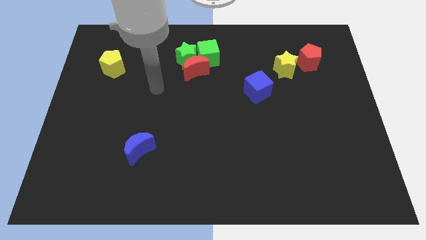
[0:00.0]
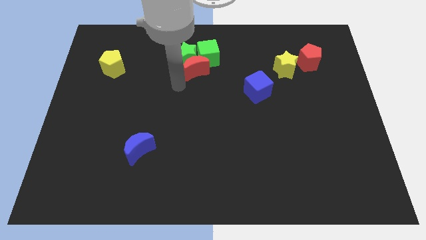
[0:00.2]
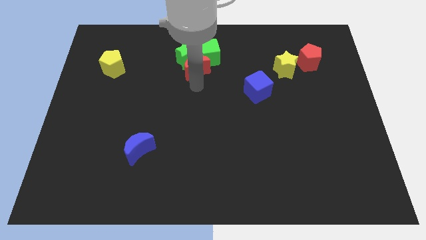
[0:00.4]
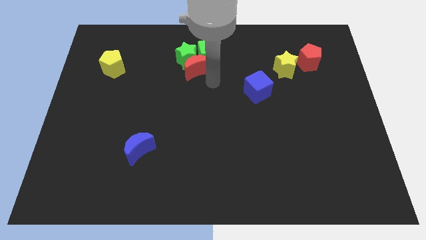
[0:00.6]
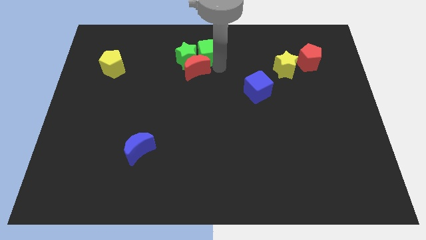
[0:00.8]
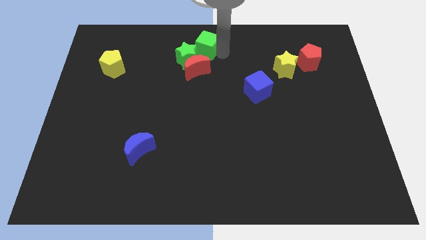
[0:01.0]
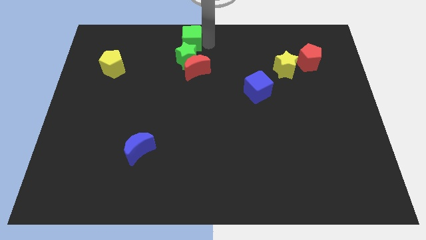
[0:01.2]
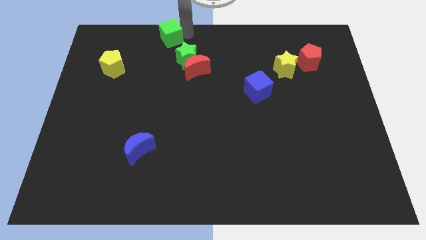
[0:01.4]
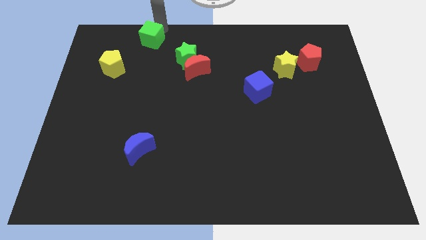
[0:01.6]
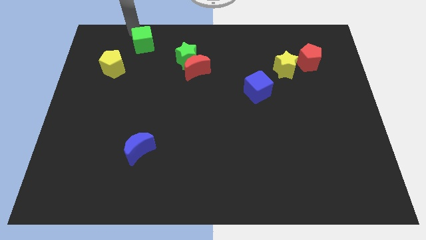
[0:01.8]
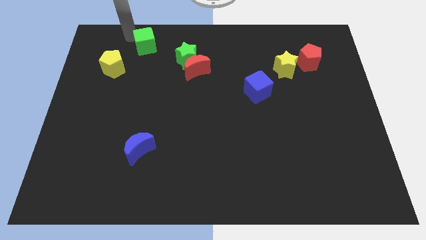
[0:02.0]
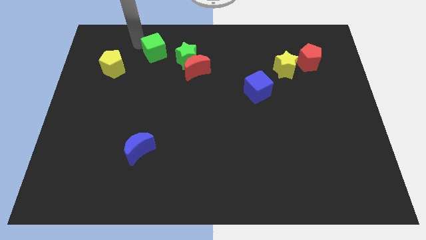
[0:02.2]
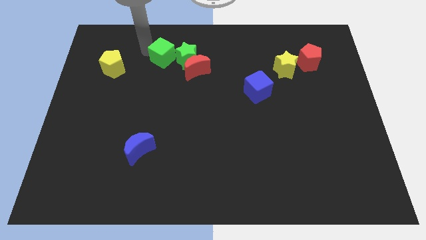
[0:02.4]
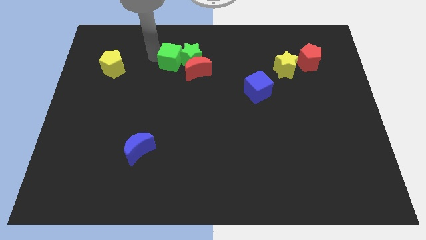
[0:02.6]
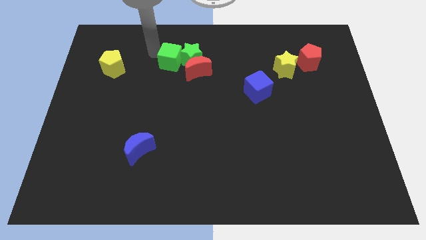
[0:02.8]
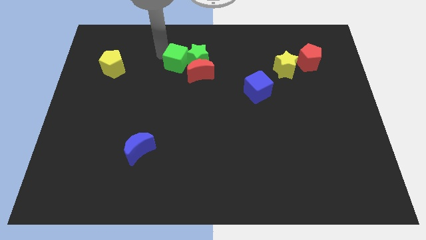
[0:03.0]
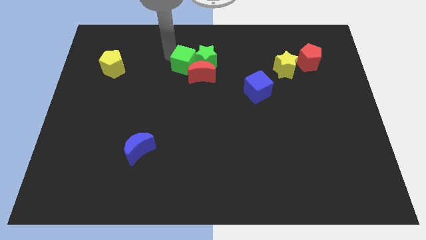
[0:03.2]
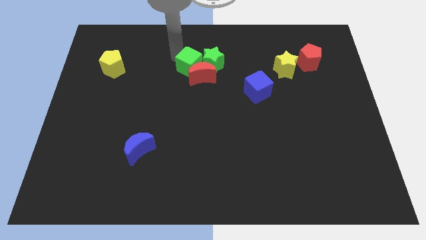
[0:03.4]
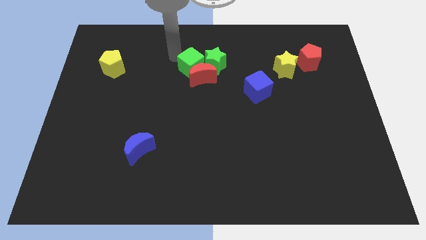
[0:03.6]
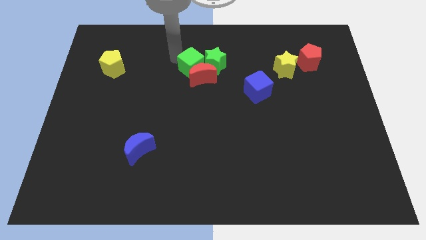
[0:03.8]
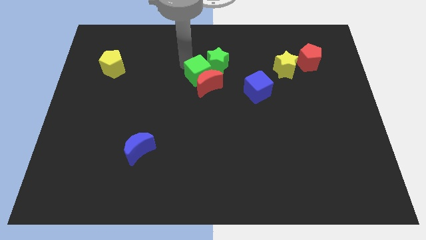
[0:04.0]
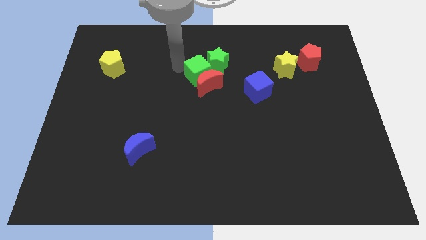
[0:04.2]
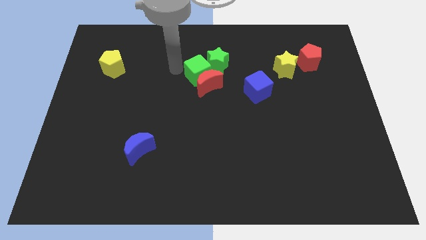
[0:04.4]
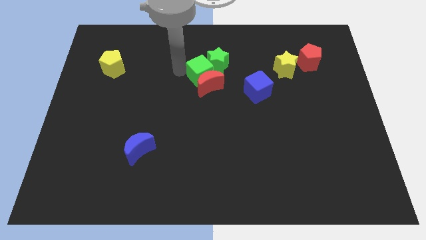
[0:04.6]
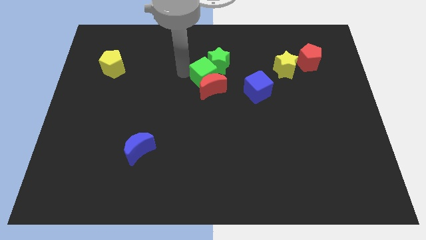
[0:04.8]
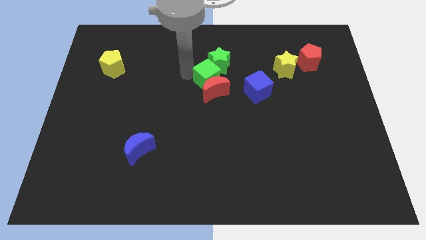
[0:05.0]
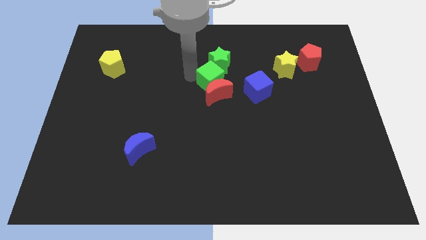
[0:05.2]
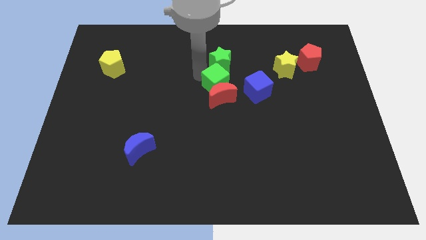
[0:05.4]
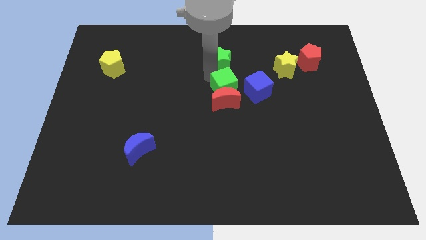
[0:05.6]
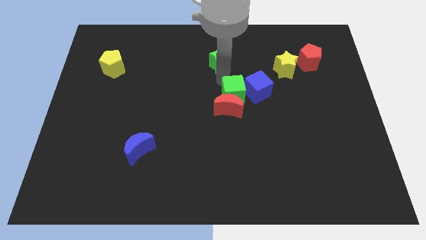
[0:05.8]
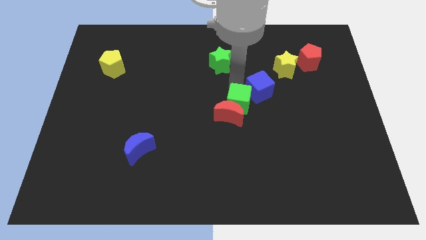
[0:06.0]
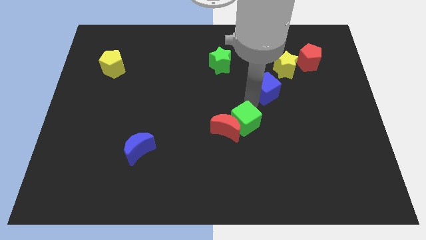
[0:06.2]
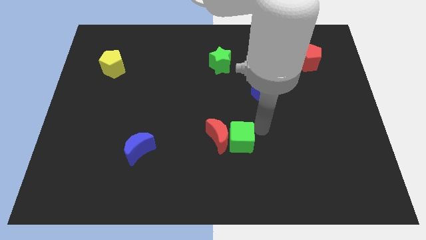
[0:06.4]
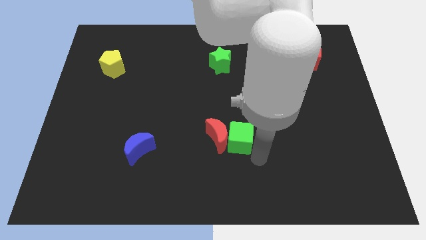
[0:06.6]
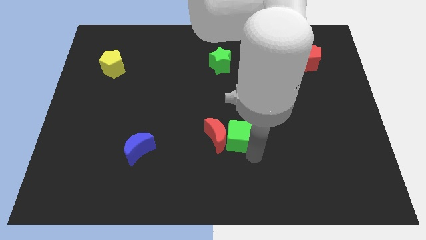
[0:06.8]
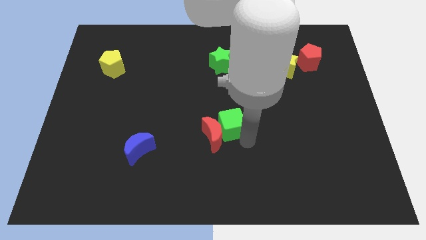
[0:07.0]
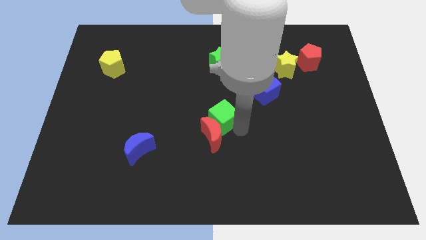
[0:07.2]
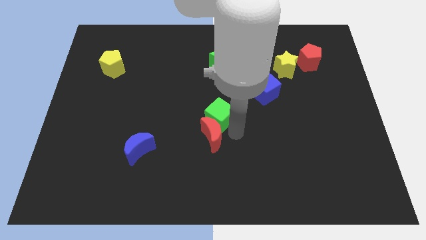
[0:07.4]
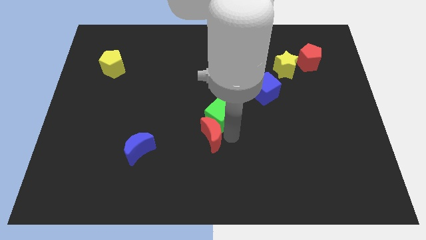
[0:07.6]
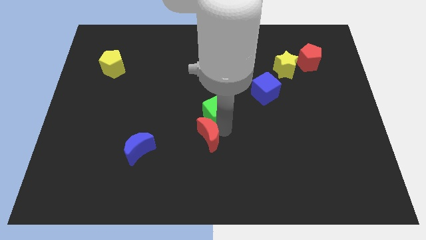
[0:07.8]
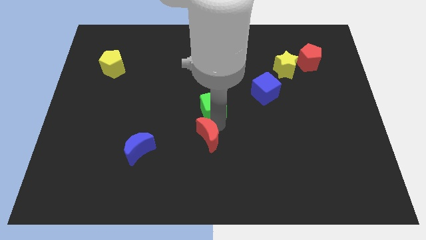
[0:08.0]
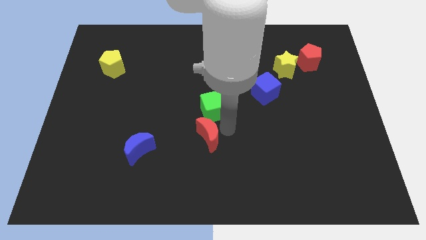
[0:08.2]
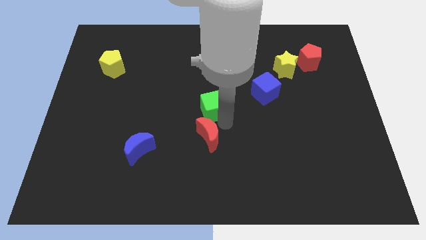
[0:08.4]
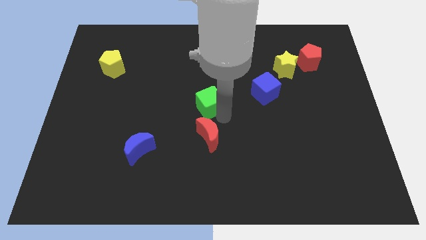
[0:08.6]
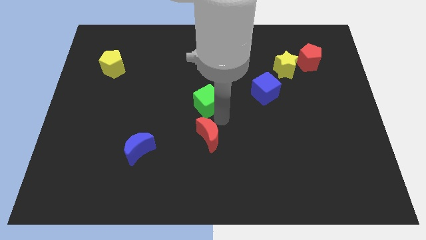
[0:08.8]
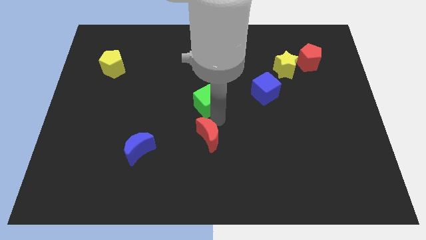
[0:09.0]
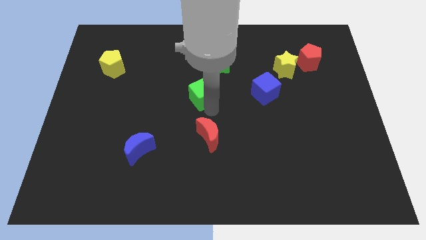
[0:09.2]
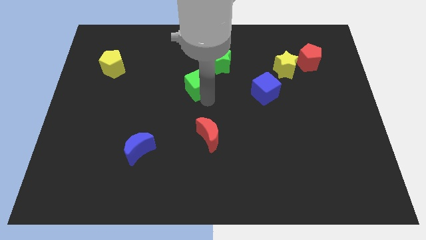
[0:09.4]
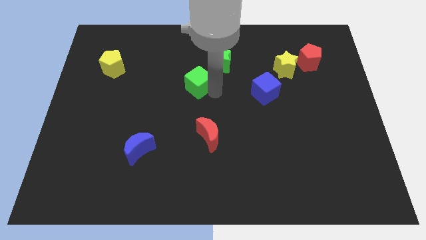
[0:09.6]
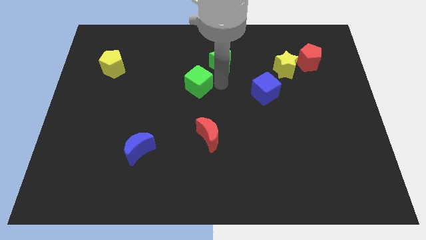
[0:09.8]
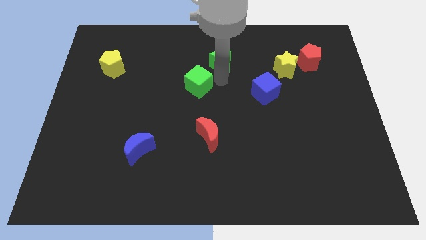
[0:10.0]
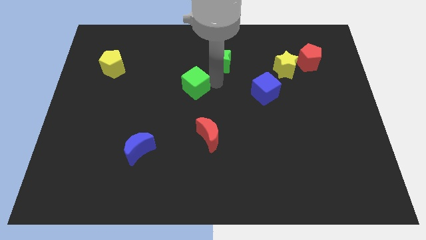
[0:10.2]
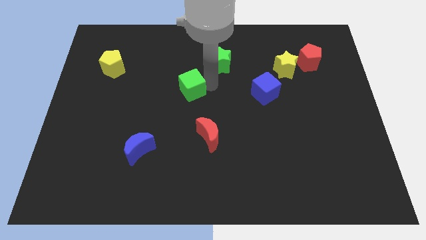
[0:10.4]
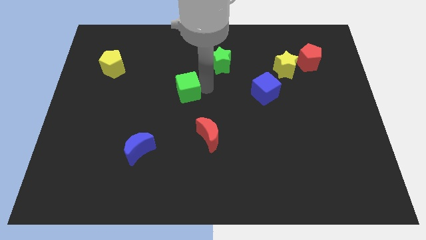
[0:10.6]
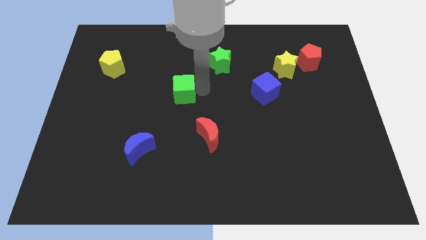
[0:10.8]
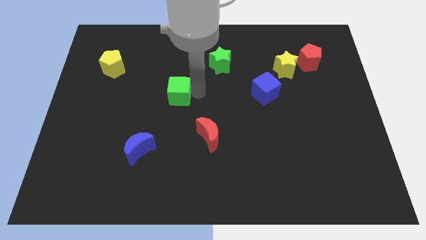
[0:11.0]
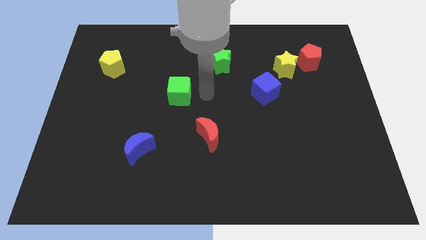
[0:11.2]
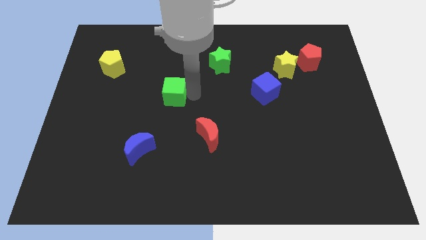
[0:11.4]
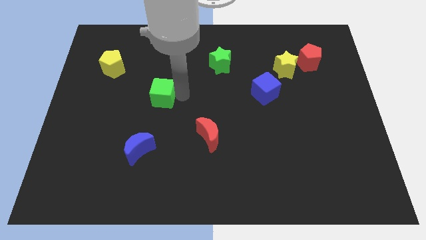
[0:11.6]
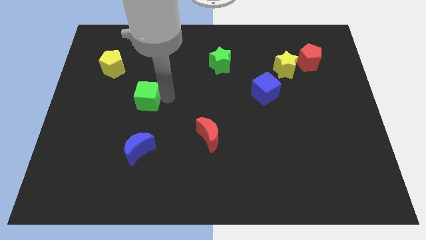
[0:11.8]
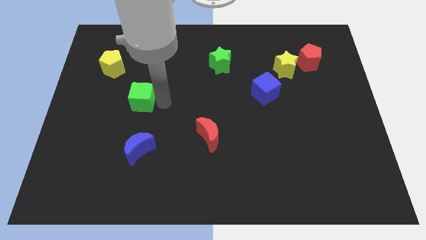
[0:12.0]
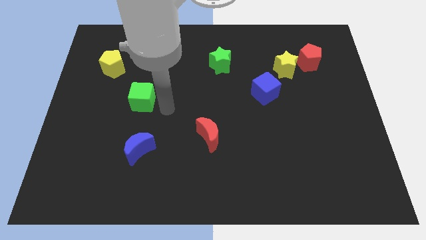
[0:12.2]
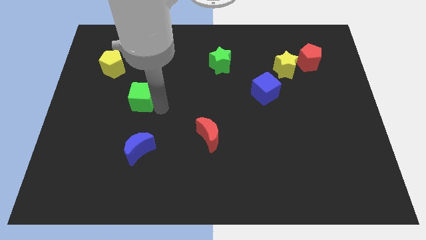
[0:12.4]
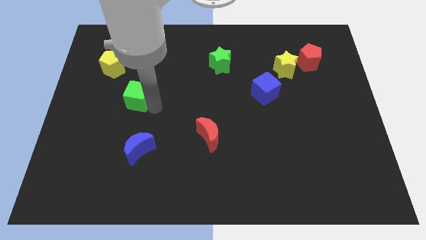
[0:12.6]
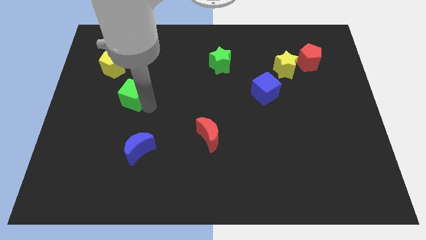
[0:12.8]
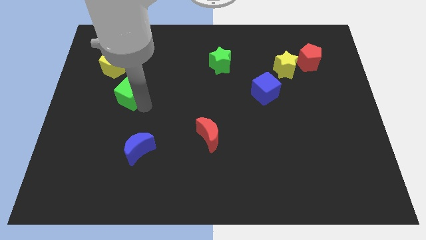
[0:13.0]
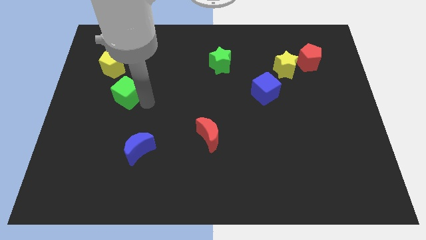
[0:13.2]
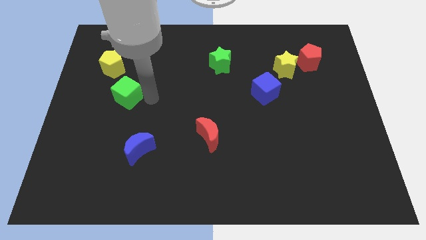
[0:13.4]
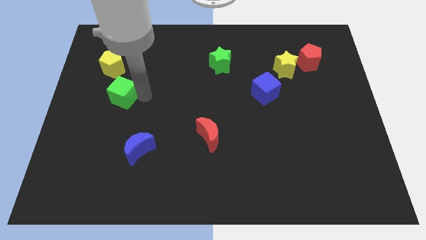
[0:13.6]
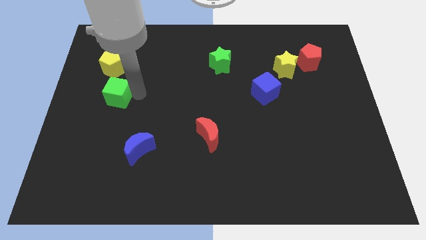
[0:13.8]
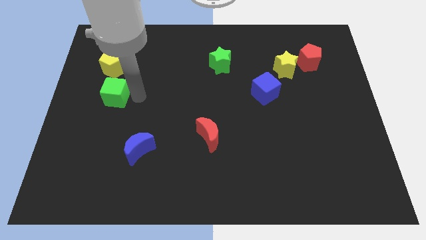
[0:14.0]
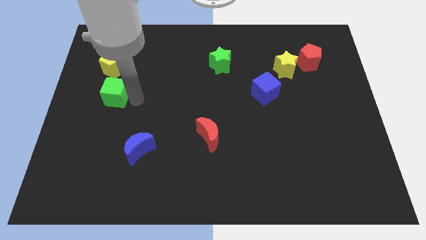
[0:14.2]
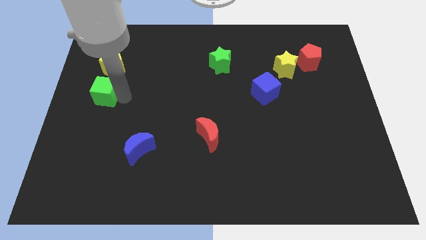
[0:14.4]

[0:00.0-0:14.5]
slide the green cube to the left side
